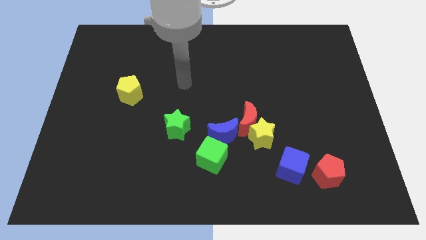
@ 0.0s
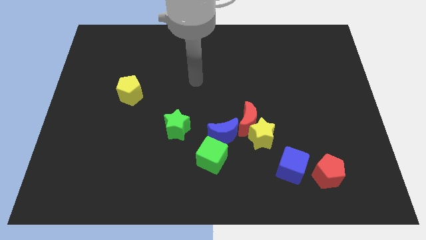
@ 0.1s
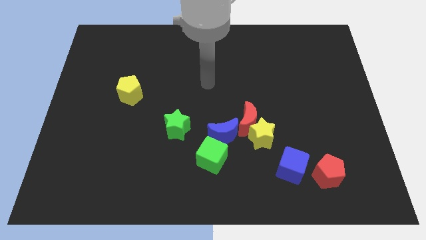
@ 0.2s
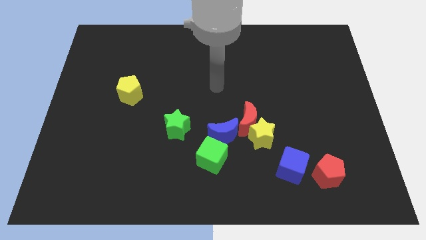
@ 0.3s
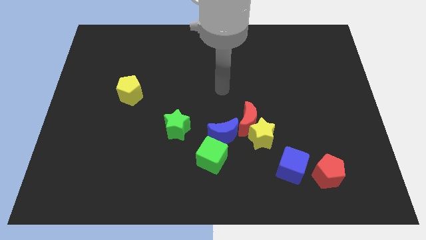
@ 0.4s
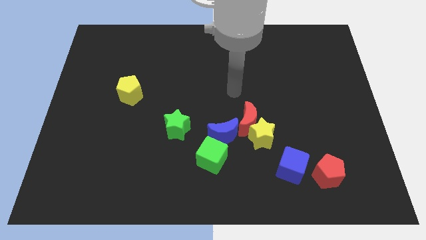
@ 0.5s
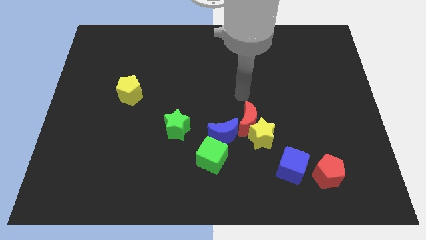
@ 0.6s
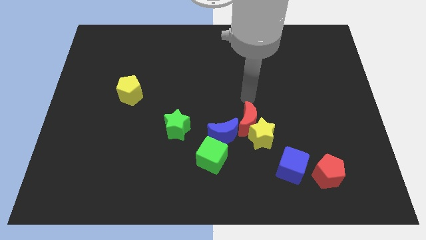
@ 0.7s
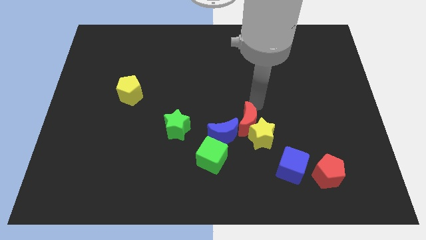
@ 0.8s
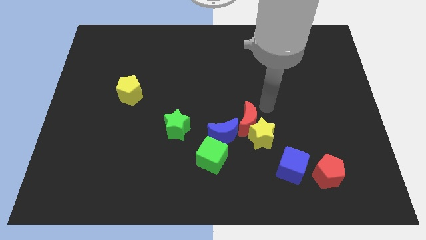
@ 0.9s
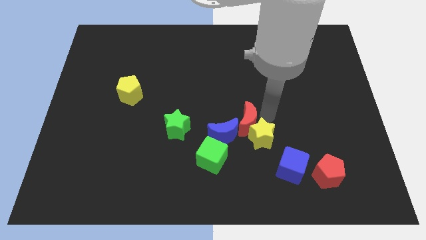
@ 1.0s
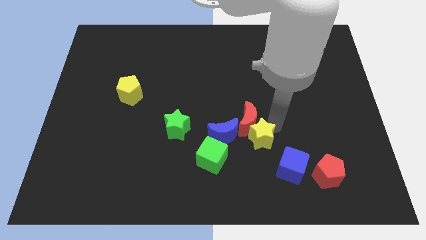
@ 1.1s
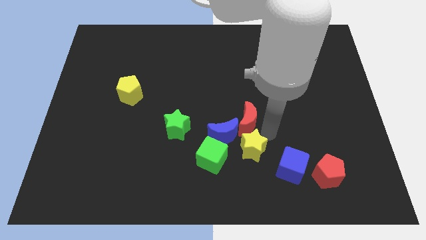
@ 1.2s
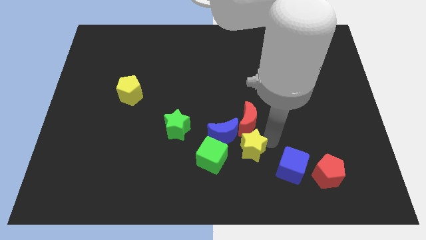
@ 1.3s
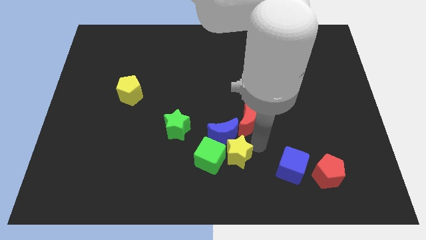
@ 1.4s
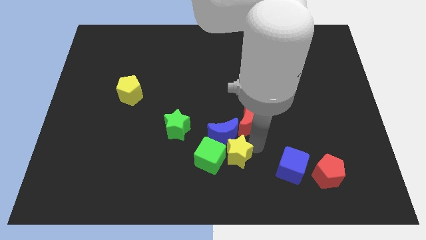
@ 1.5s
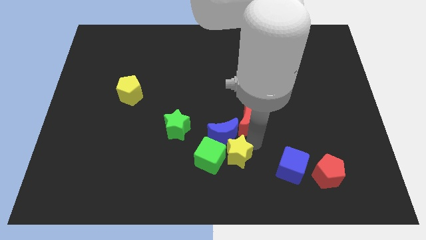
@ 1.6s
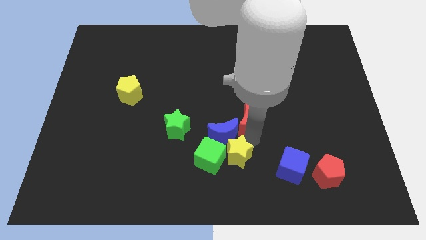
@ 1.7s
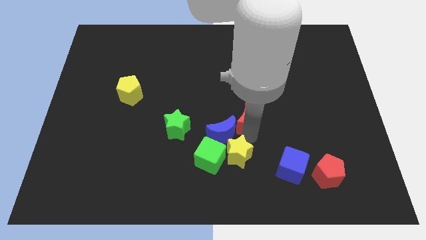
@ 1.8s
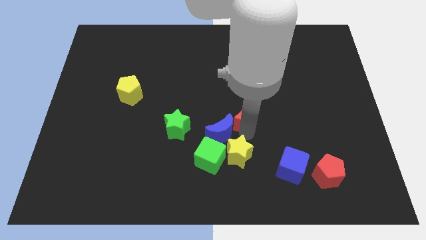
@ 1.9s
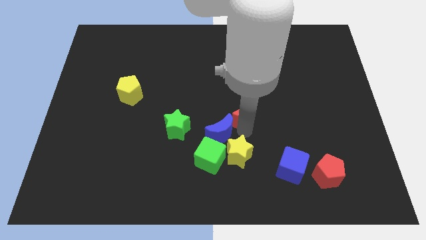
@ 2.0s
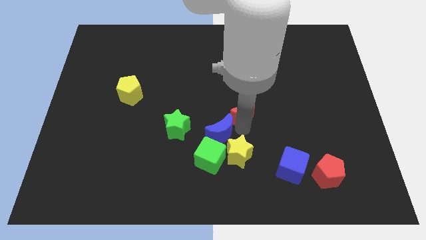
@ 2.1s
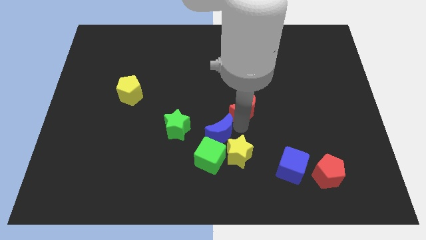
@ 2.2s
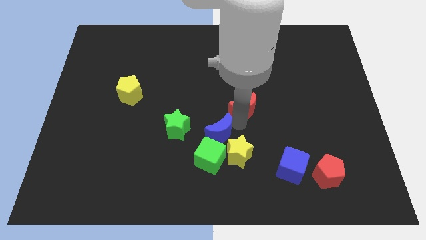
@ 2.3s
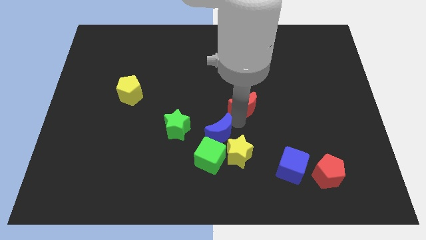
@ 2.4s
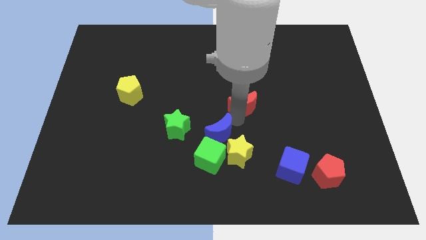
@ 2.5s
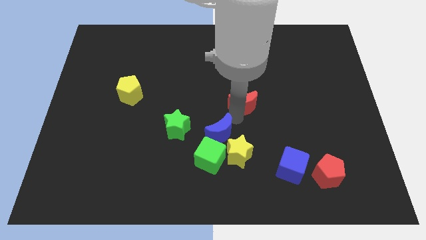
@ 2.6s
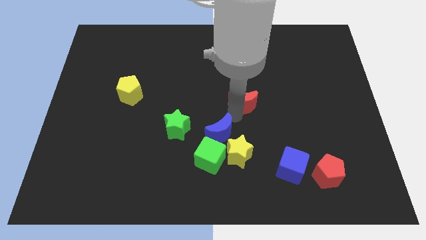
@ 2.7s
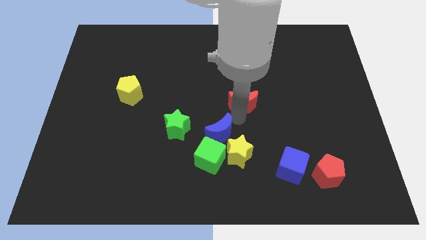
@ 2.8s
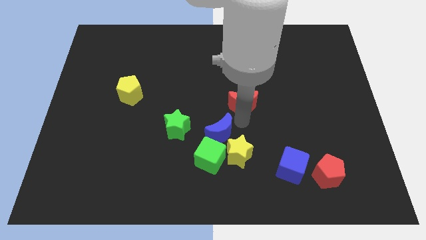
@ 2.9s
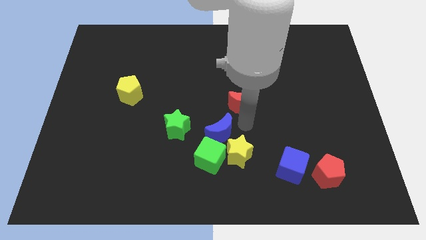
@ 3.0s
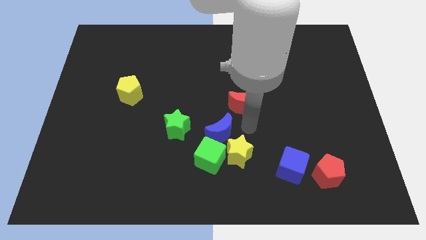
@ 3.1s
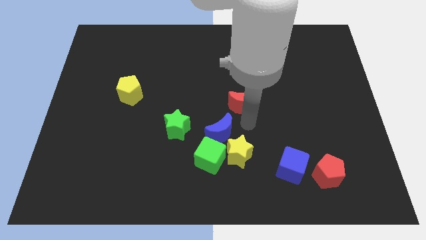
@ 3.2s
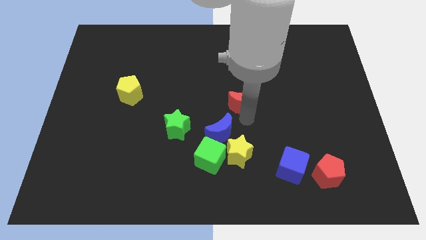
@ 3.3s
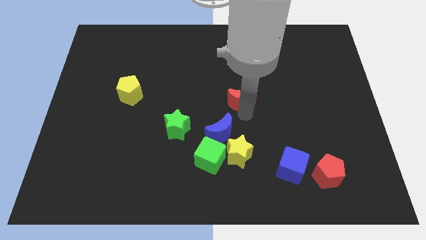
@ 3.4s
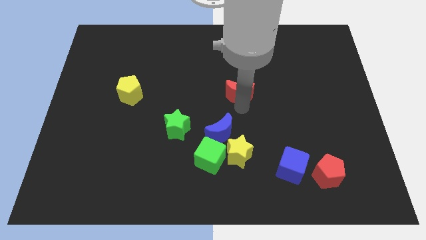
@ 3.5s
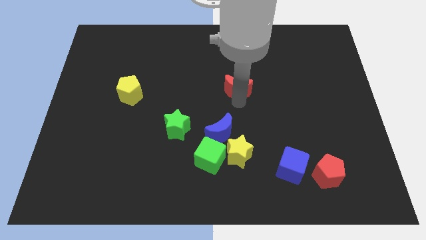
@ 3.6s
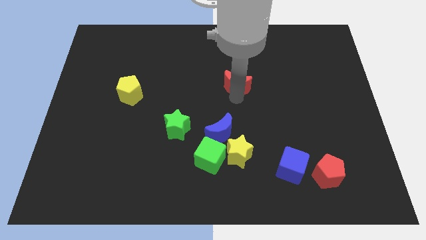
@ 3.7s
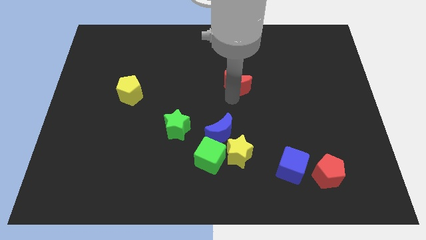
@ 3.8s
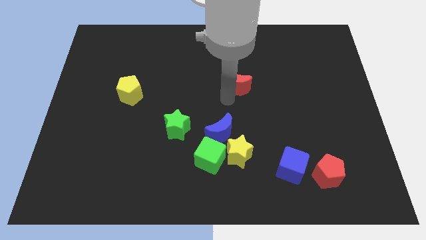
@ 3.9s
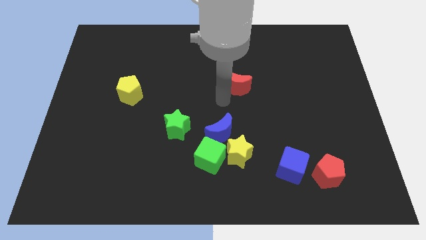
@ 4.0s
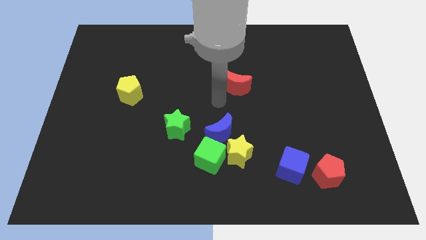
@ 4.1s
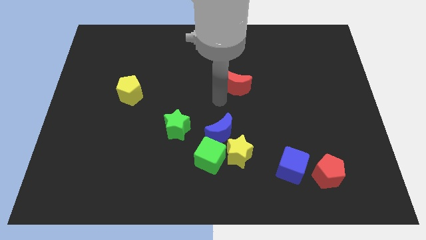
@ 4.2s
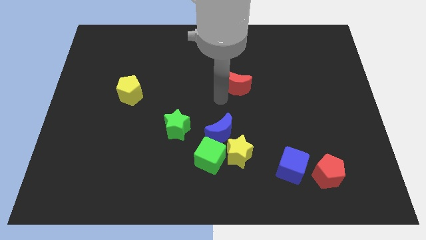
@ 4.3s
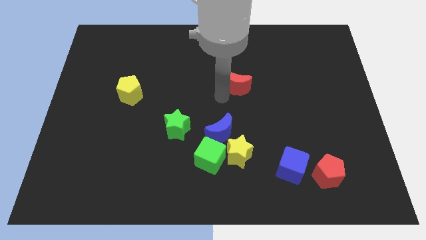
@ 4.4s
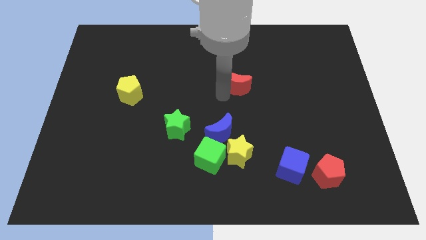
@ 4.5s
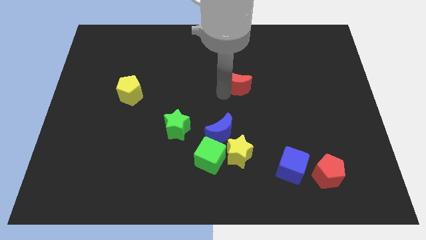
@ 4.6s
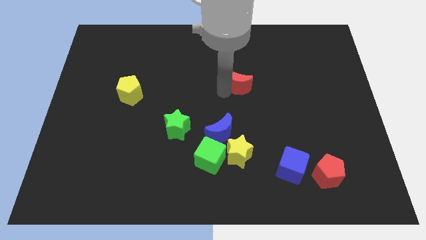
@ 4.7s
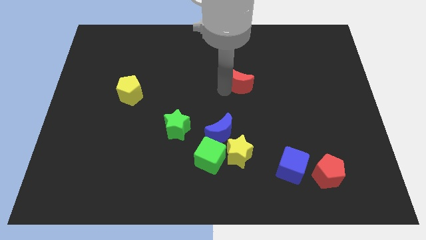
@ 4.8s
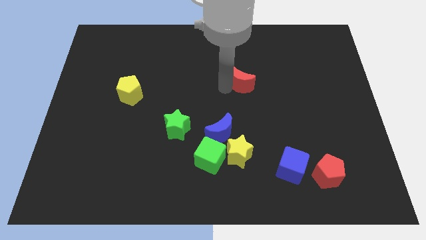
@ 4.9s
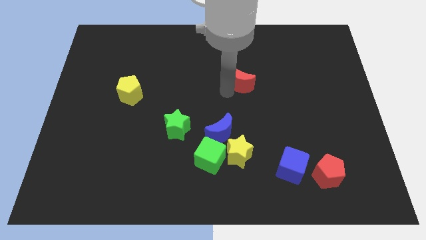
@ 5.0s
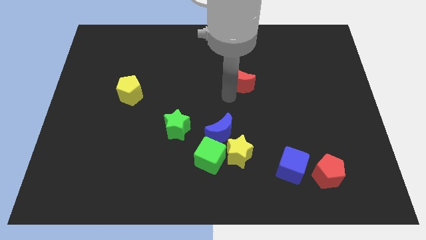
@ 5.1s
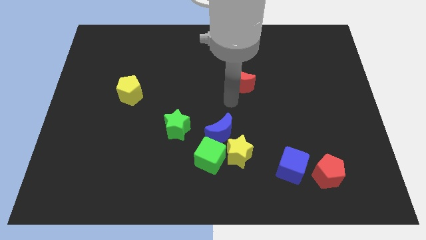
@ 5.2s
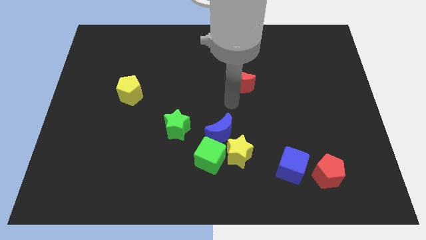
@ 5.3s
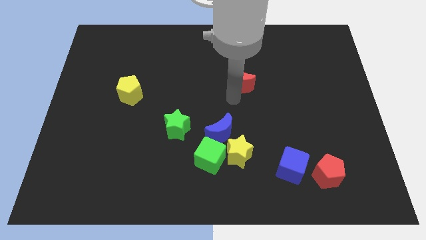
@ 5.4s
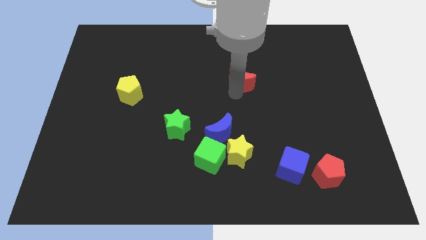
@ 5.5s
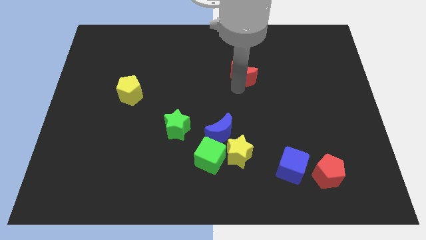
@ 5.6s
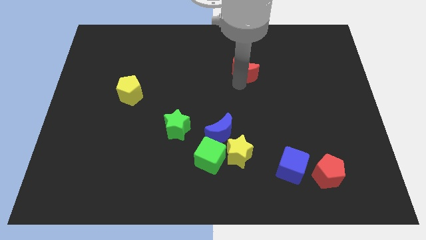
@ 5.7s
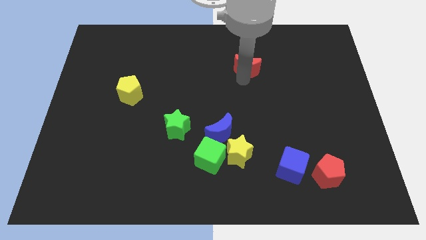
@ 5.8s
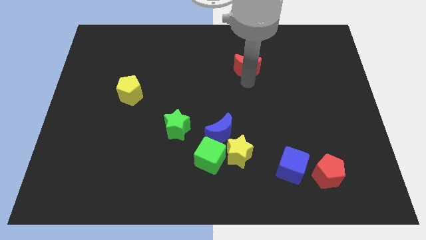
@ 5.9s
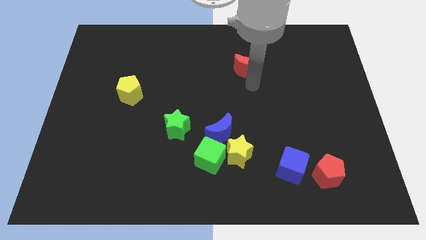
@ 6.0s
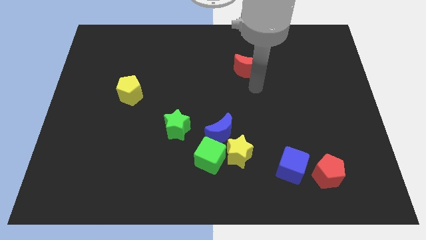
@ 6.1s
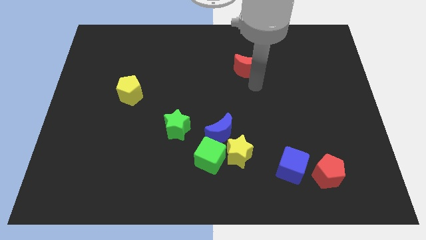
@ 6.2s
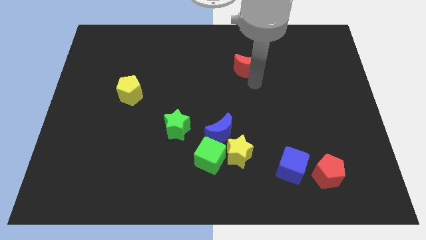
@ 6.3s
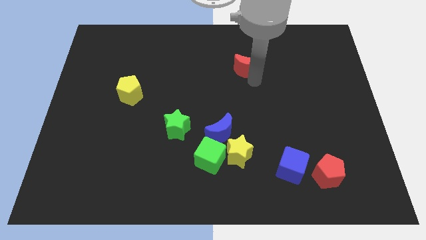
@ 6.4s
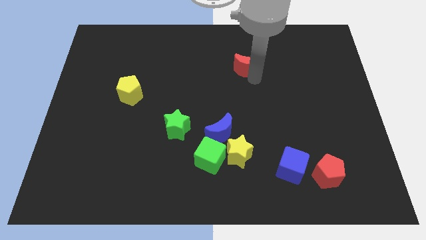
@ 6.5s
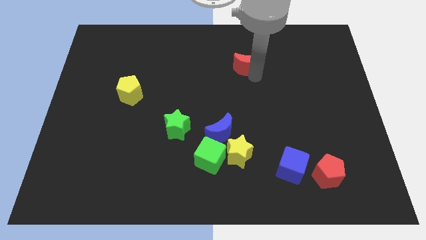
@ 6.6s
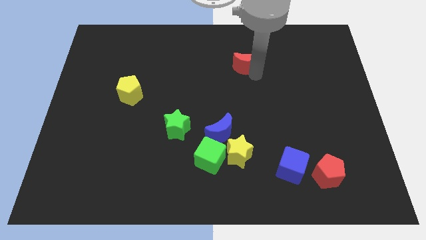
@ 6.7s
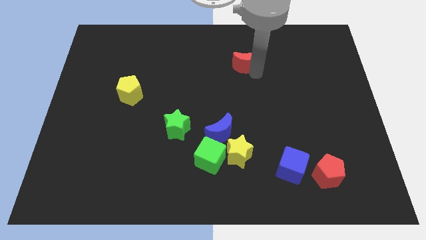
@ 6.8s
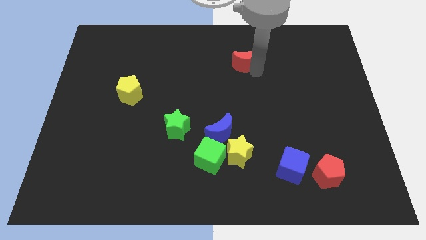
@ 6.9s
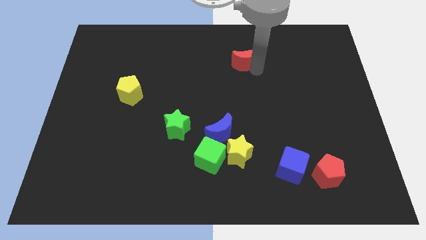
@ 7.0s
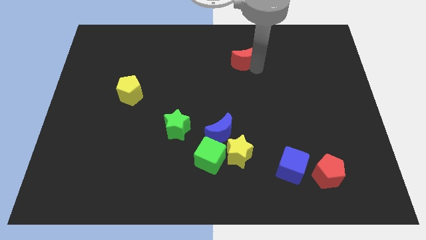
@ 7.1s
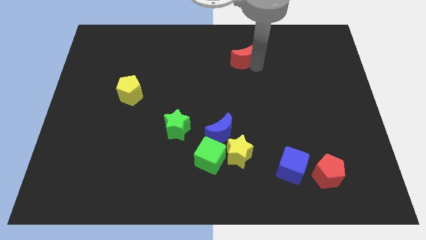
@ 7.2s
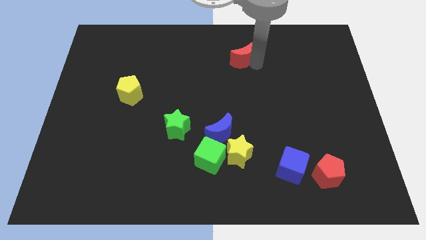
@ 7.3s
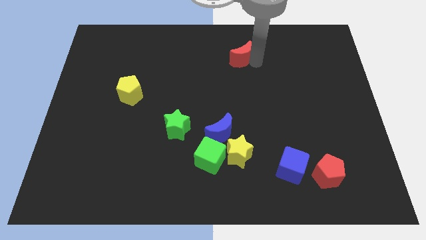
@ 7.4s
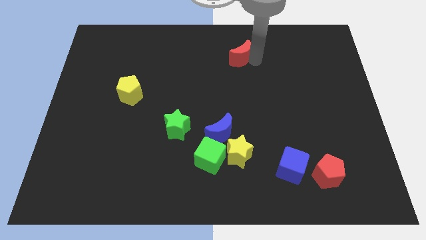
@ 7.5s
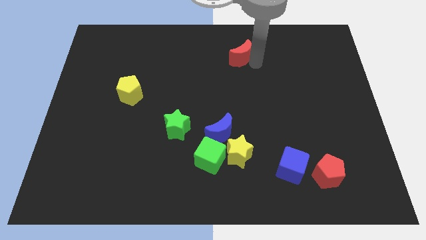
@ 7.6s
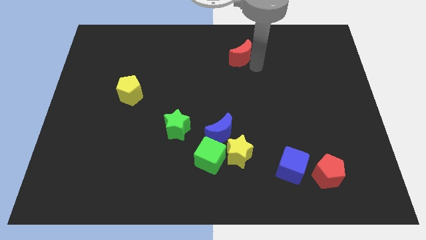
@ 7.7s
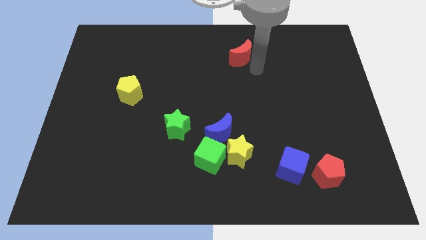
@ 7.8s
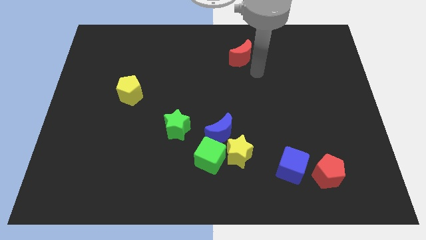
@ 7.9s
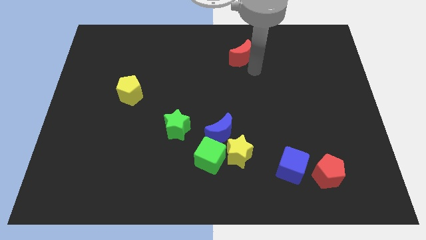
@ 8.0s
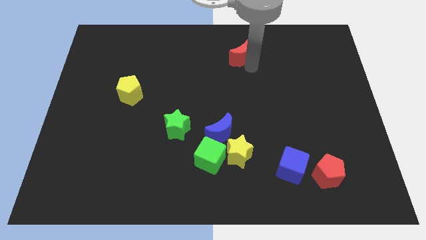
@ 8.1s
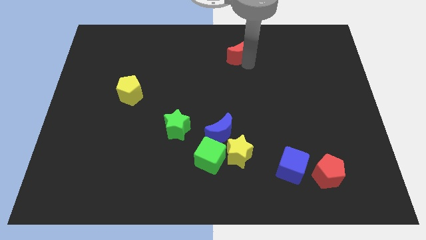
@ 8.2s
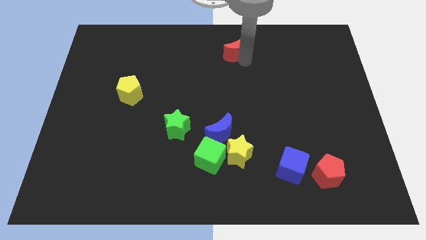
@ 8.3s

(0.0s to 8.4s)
slide the red moon to the towards your base
